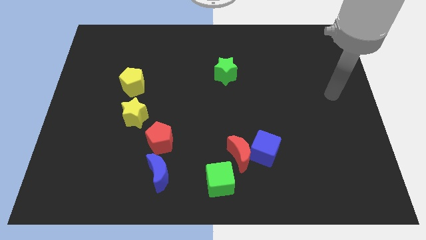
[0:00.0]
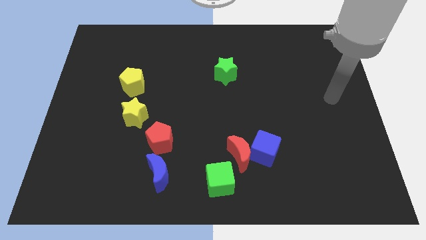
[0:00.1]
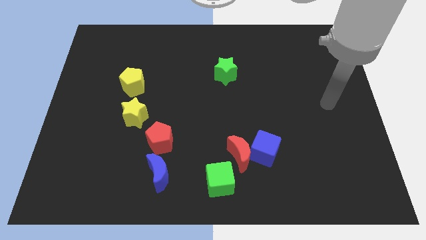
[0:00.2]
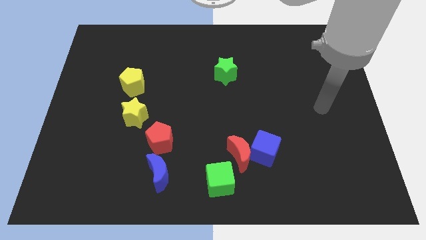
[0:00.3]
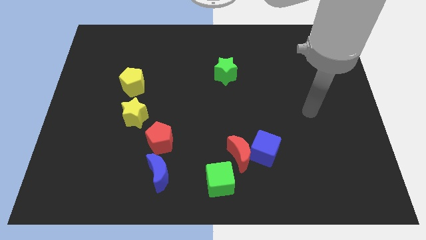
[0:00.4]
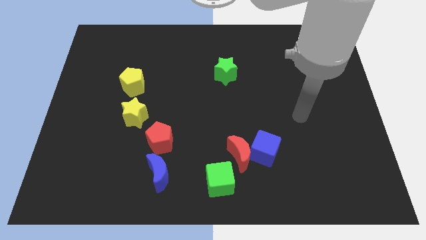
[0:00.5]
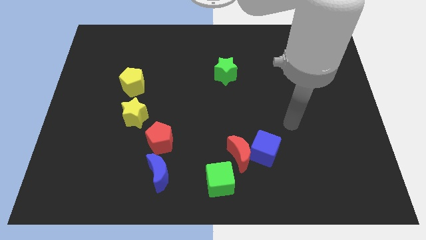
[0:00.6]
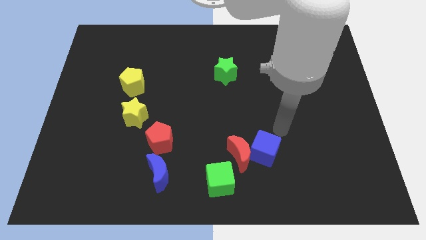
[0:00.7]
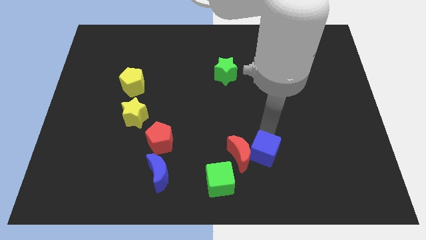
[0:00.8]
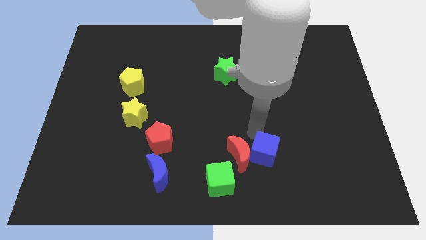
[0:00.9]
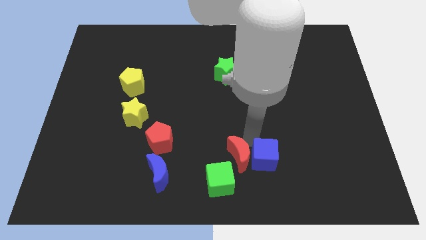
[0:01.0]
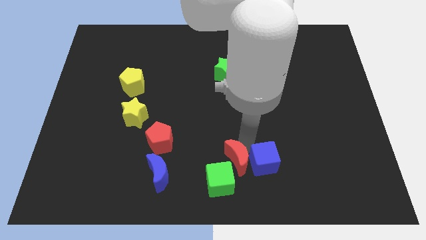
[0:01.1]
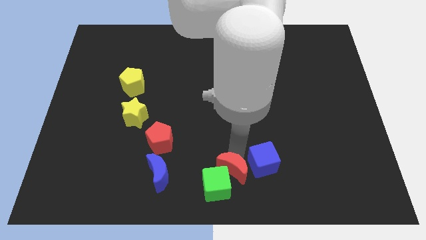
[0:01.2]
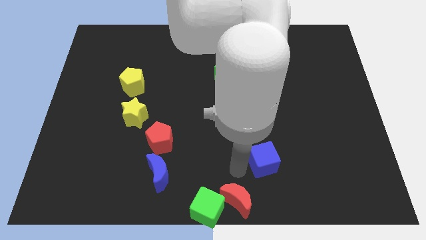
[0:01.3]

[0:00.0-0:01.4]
move the blue cube away from the red moon

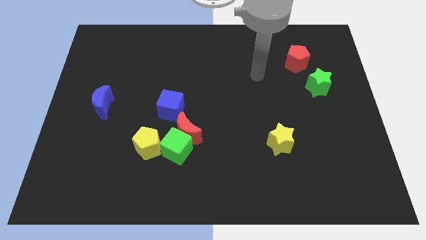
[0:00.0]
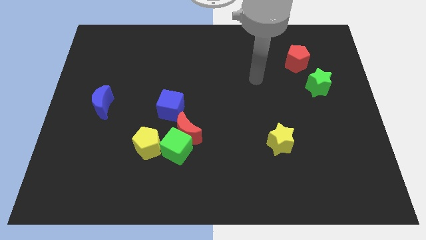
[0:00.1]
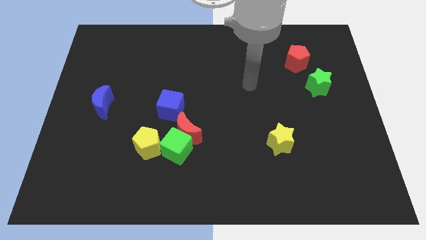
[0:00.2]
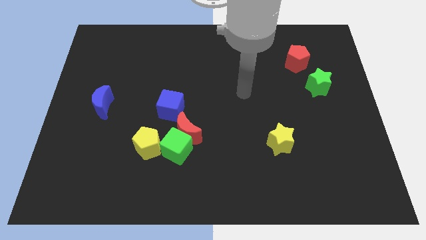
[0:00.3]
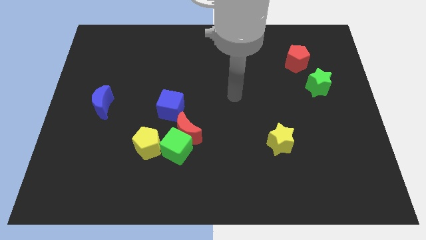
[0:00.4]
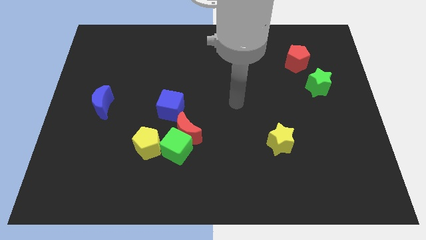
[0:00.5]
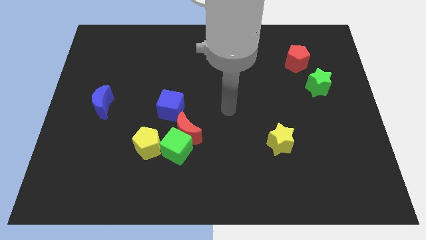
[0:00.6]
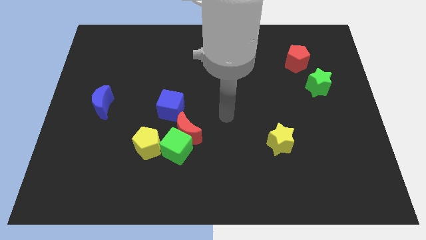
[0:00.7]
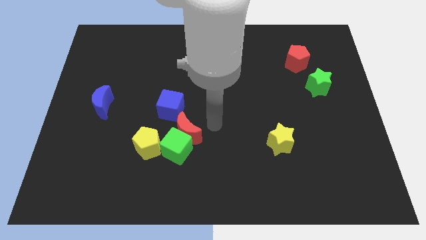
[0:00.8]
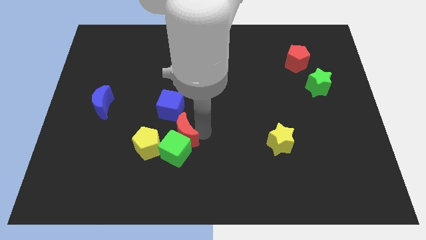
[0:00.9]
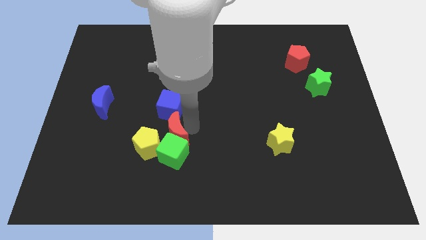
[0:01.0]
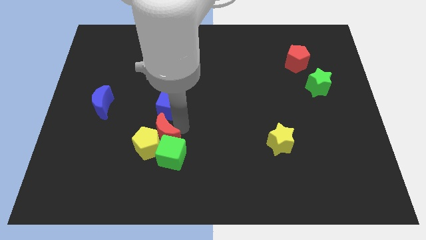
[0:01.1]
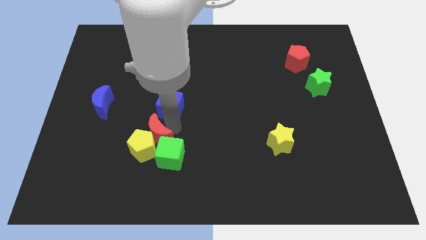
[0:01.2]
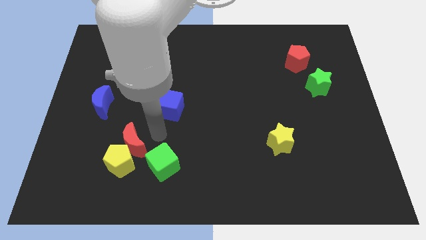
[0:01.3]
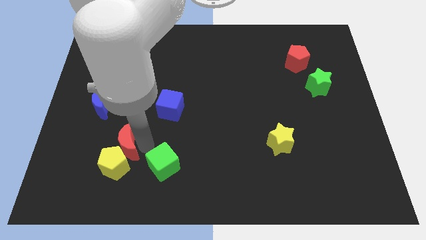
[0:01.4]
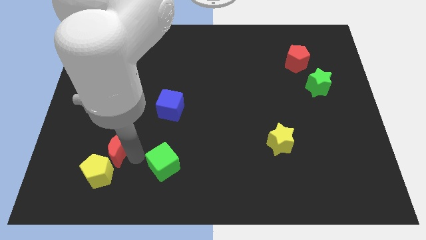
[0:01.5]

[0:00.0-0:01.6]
separate the green cube from the red moon and yellow pentagon

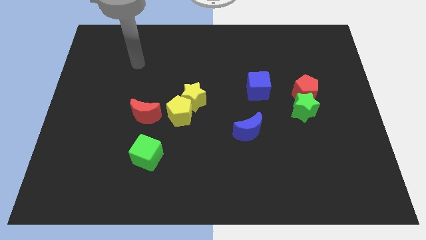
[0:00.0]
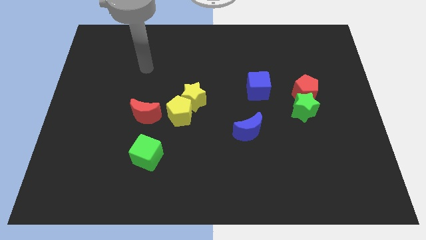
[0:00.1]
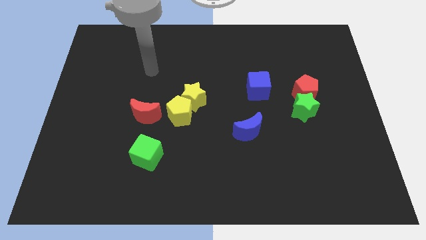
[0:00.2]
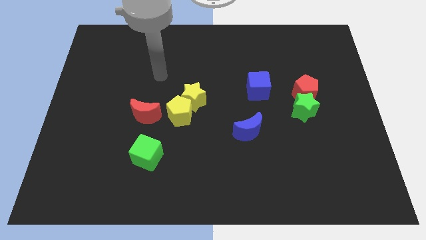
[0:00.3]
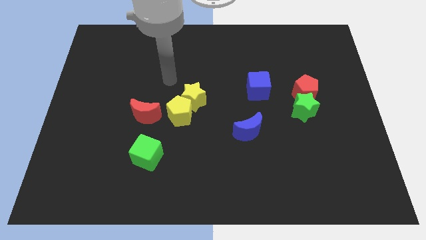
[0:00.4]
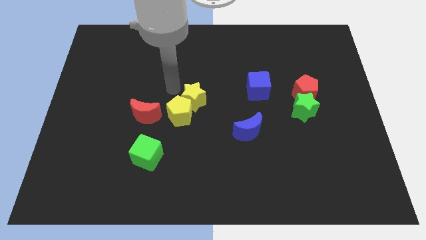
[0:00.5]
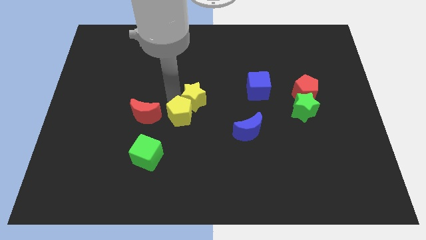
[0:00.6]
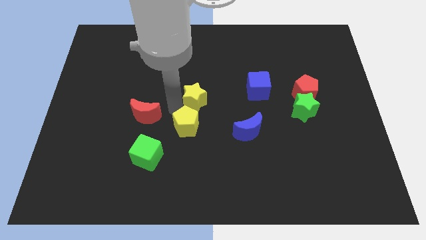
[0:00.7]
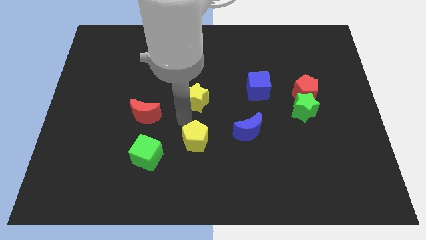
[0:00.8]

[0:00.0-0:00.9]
separate the yellow star from the yellow pentagon

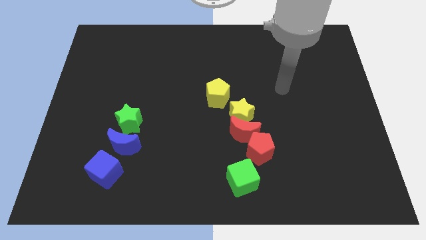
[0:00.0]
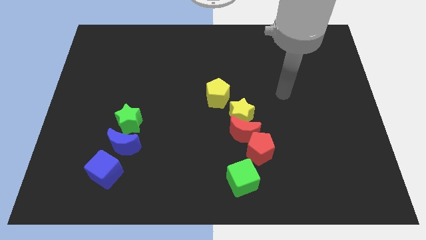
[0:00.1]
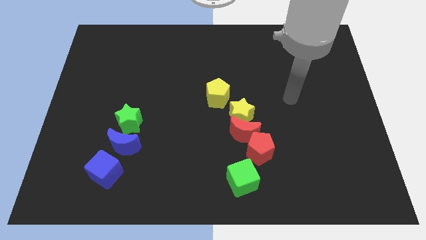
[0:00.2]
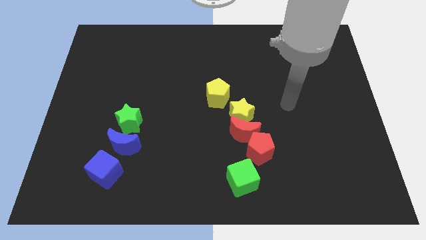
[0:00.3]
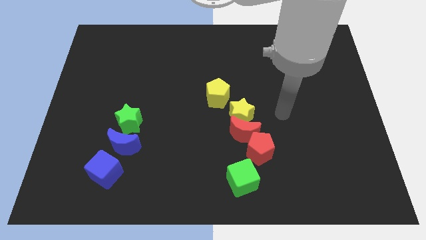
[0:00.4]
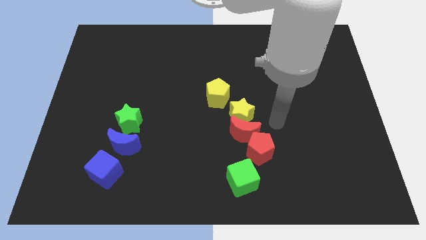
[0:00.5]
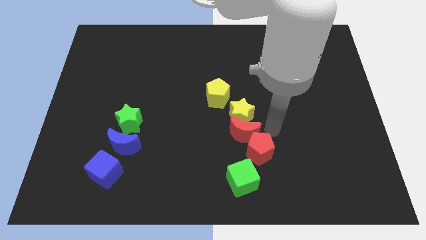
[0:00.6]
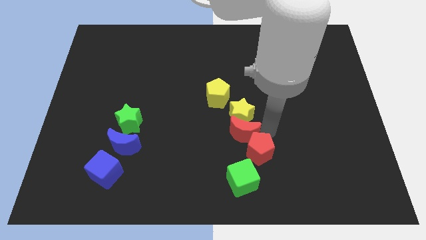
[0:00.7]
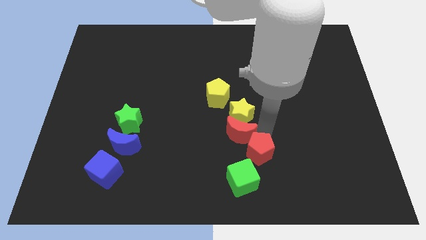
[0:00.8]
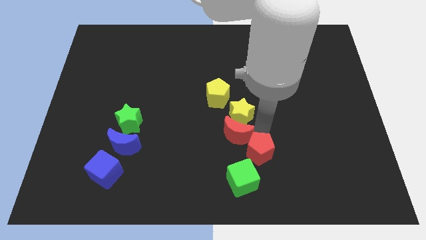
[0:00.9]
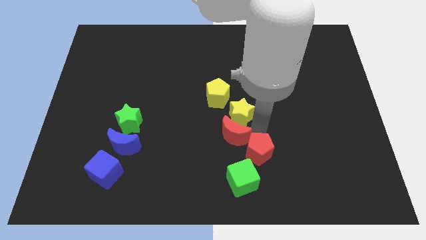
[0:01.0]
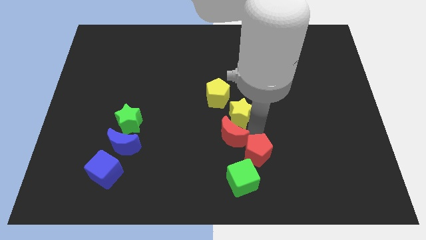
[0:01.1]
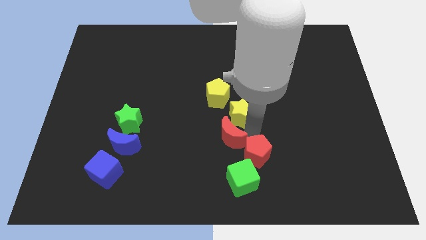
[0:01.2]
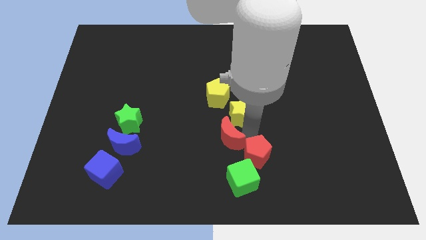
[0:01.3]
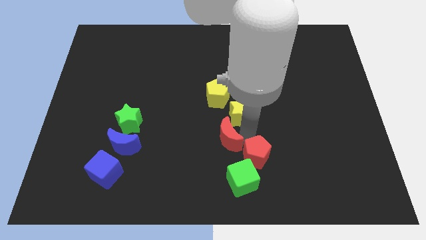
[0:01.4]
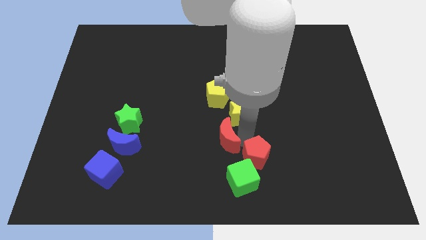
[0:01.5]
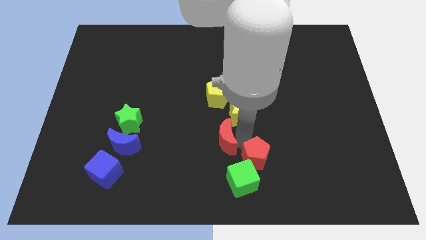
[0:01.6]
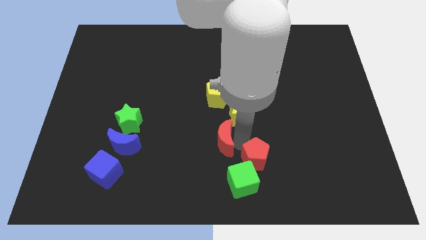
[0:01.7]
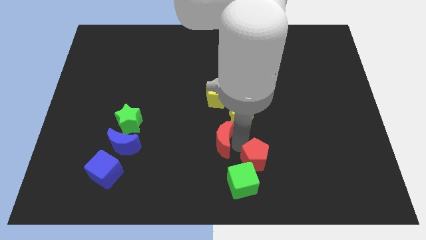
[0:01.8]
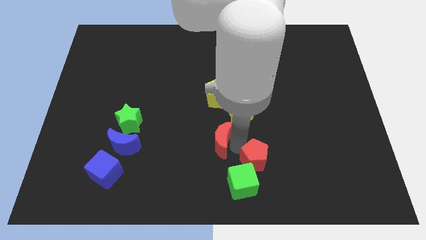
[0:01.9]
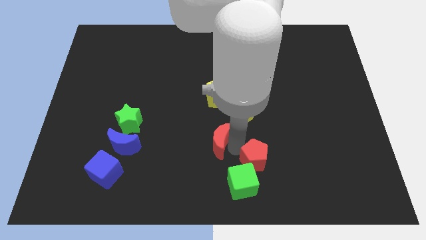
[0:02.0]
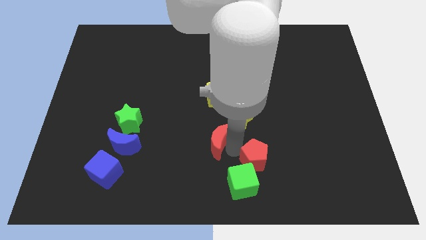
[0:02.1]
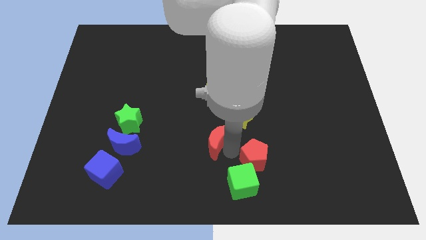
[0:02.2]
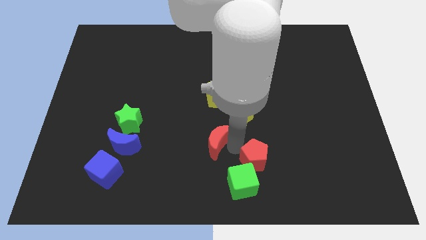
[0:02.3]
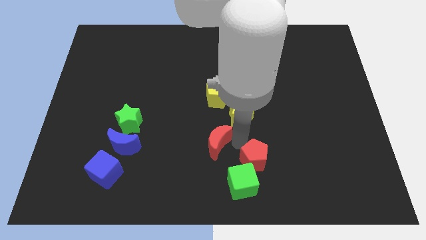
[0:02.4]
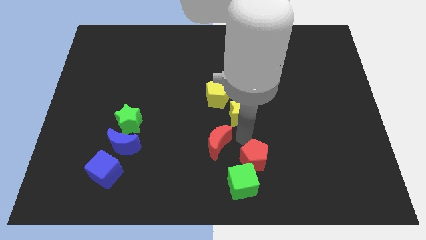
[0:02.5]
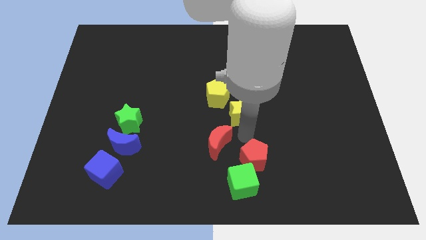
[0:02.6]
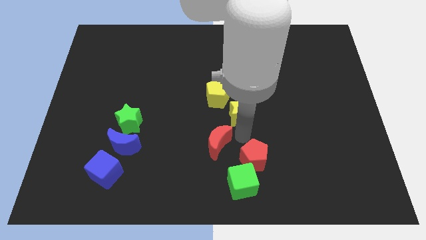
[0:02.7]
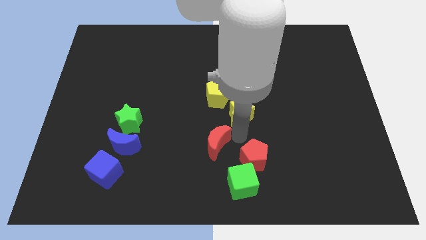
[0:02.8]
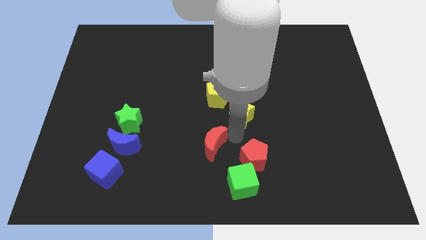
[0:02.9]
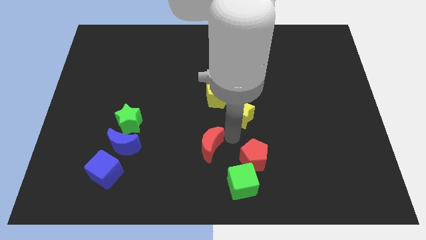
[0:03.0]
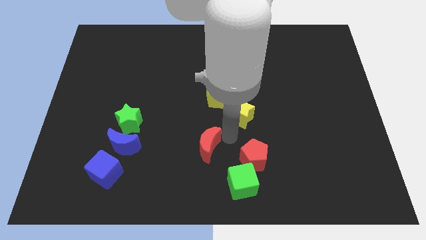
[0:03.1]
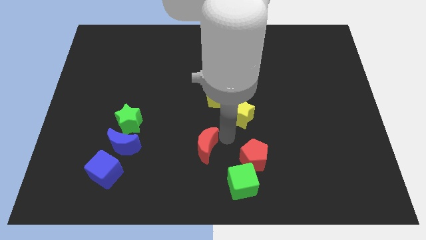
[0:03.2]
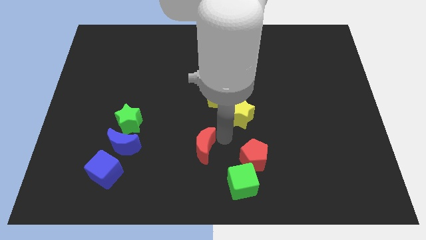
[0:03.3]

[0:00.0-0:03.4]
pull the red moon apart from the yellow star and red pentagon

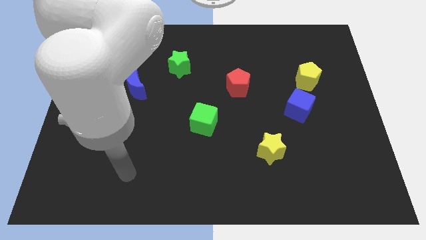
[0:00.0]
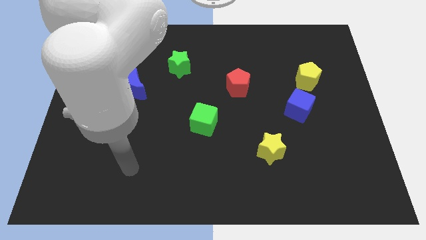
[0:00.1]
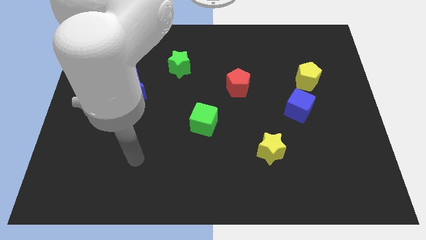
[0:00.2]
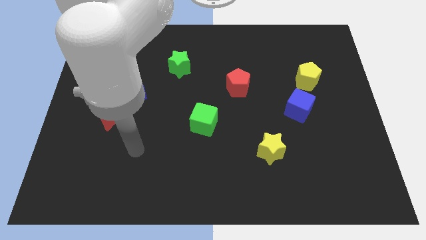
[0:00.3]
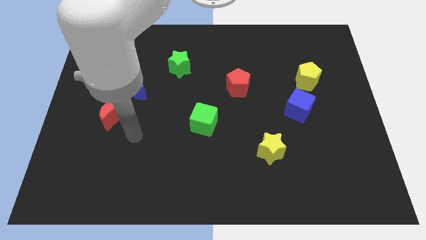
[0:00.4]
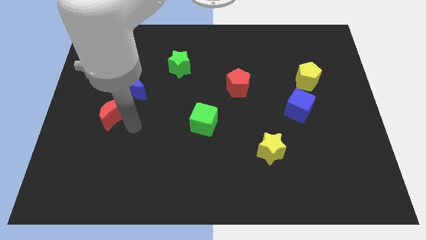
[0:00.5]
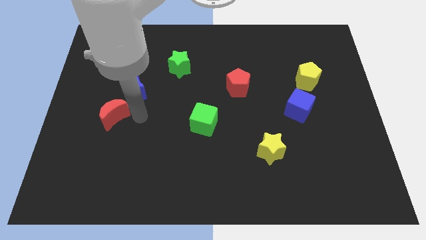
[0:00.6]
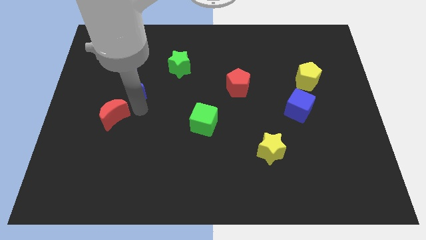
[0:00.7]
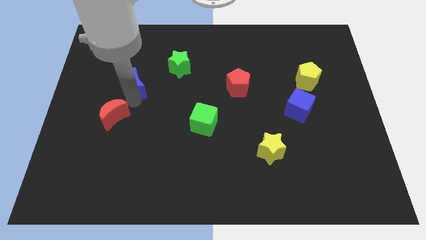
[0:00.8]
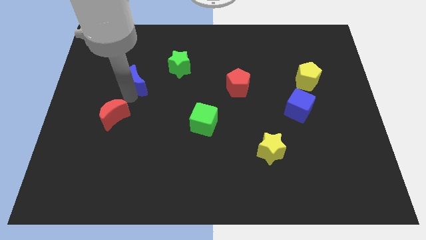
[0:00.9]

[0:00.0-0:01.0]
separate the red moon from the blue moon

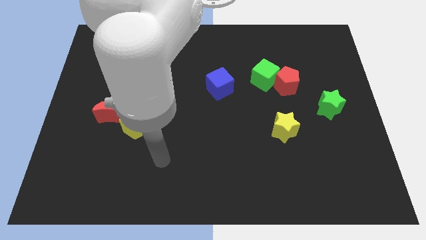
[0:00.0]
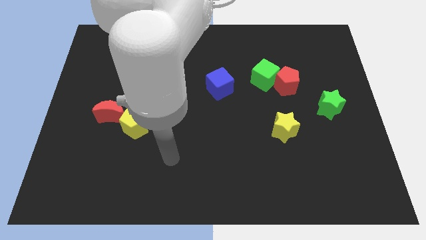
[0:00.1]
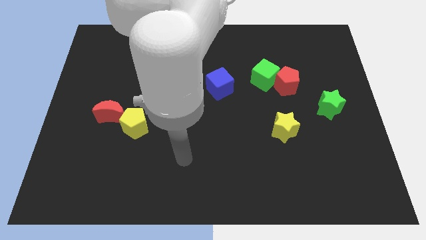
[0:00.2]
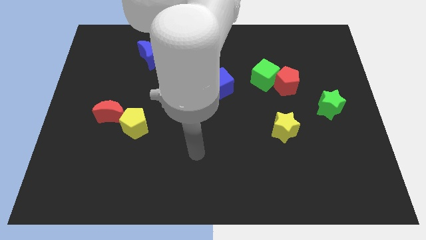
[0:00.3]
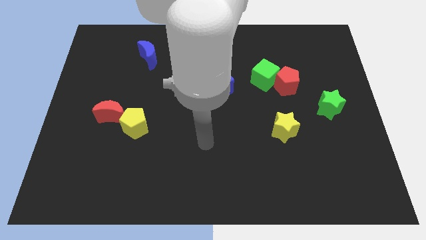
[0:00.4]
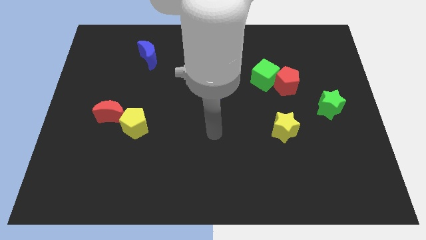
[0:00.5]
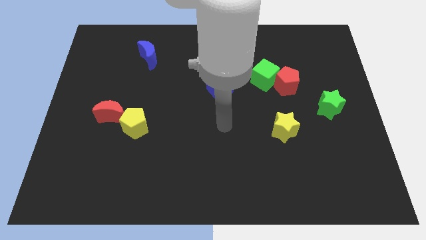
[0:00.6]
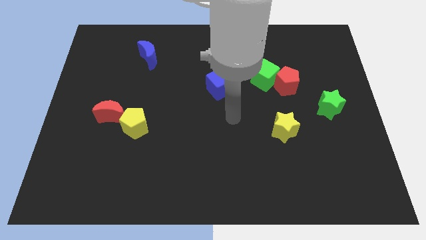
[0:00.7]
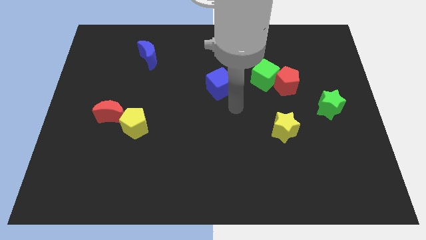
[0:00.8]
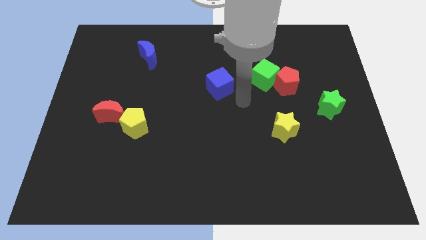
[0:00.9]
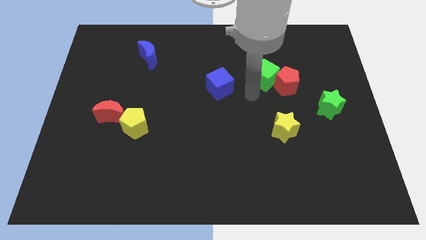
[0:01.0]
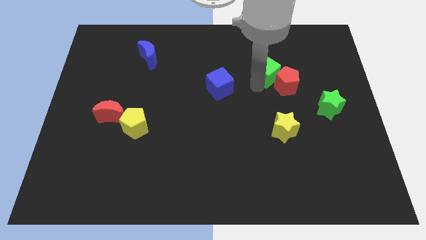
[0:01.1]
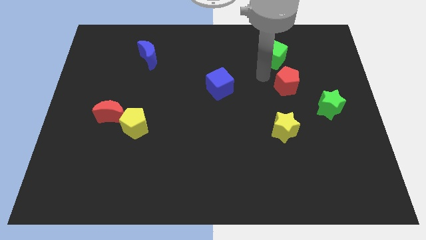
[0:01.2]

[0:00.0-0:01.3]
pull the red pentagon apart from the green cube
